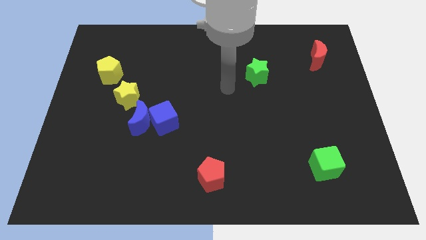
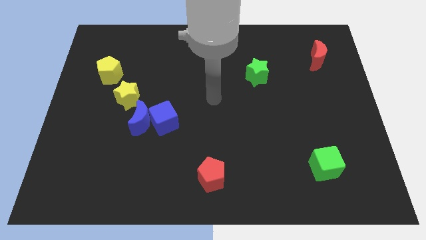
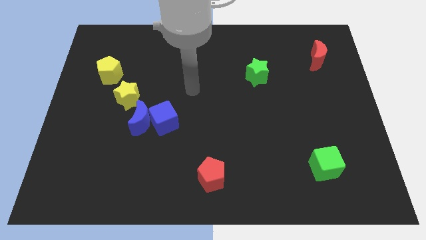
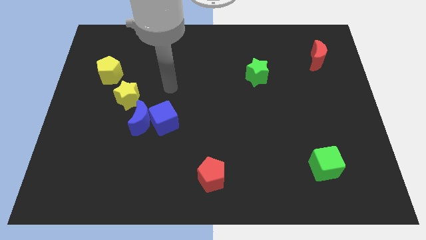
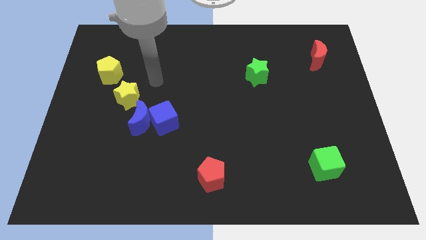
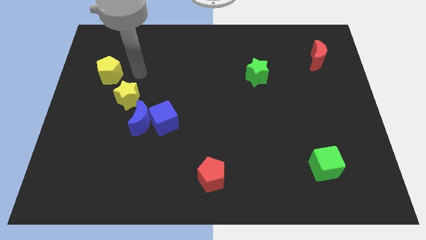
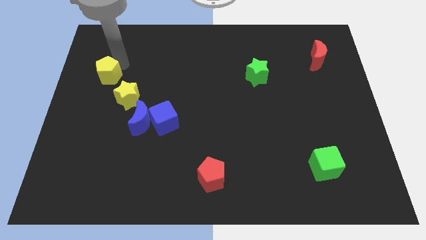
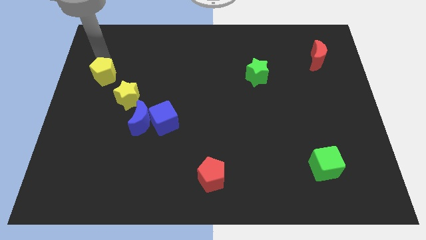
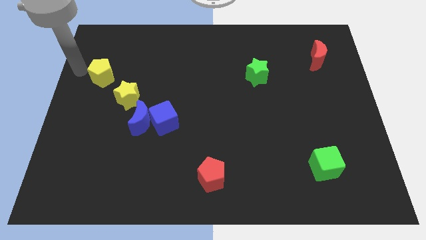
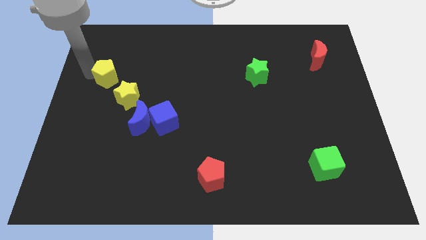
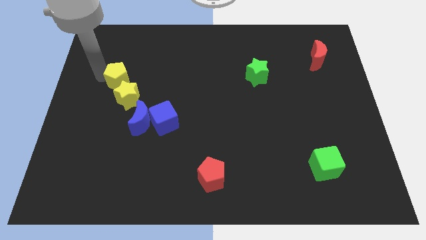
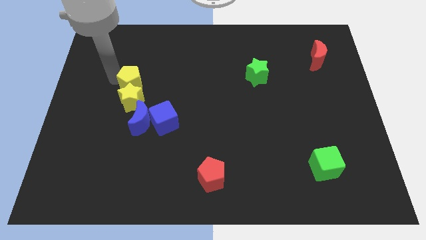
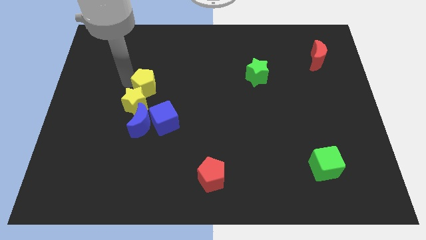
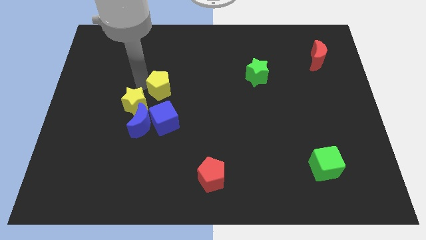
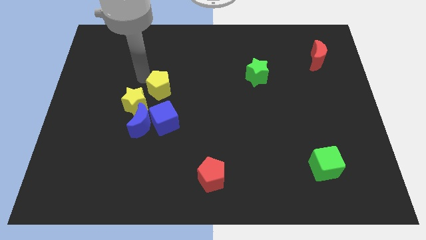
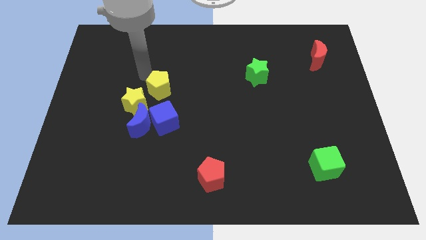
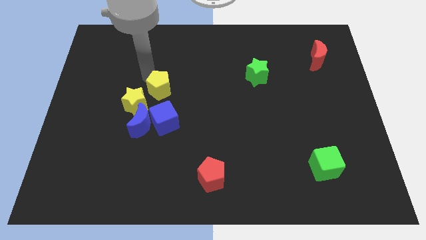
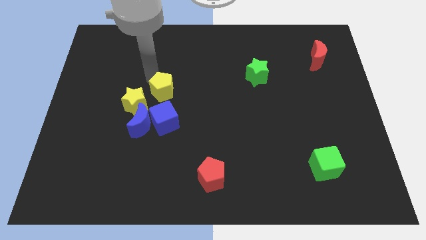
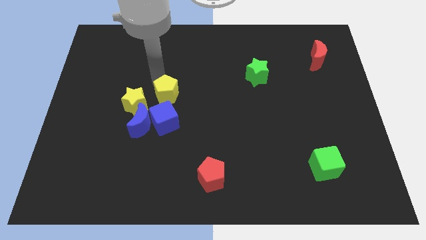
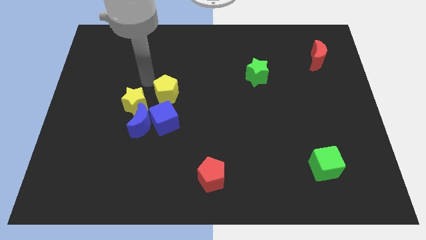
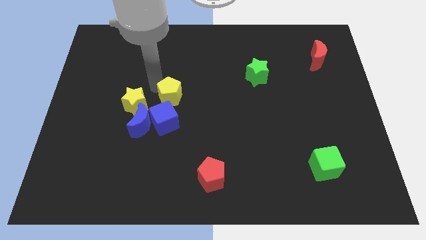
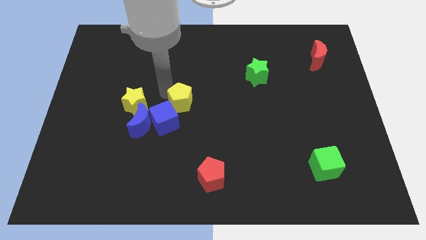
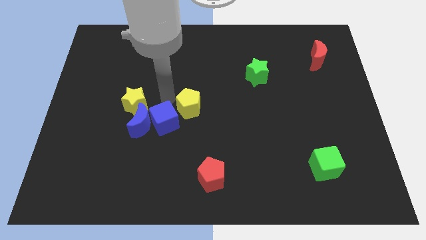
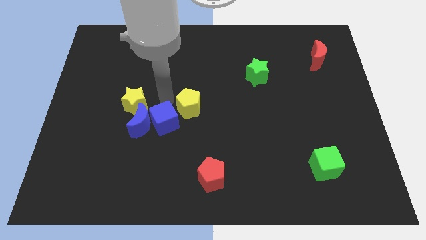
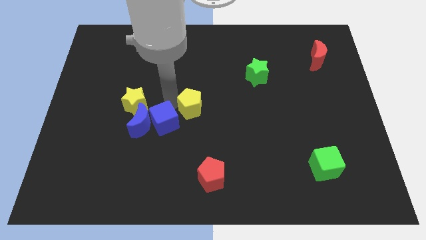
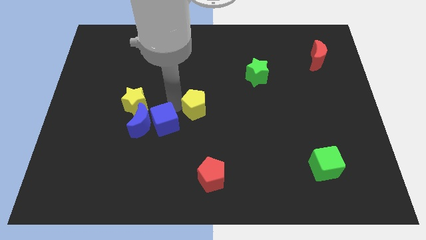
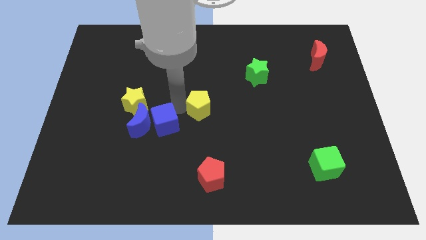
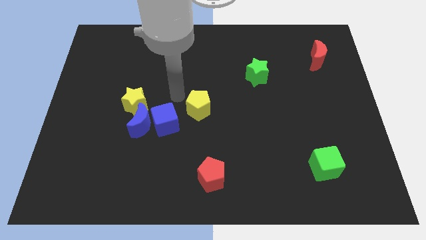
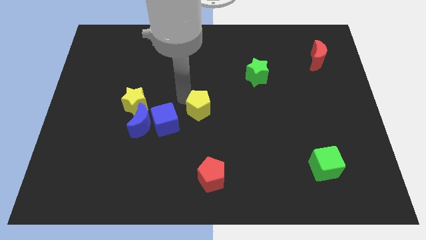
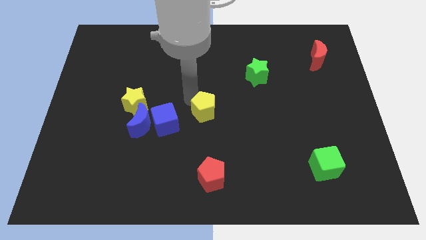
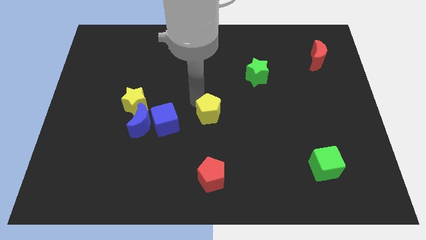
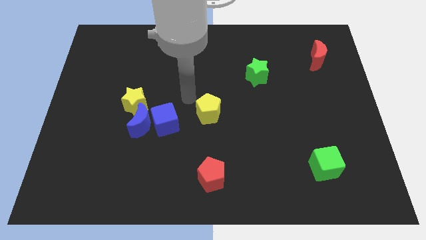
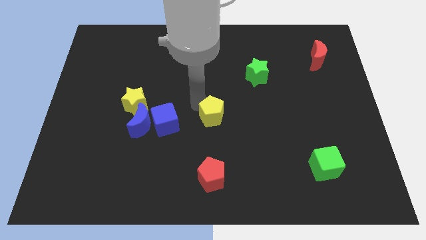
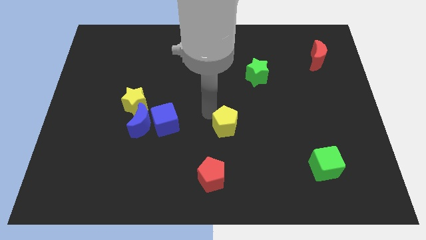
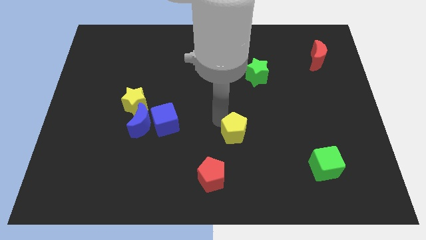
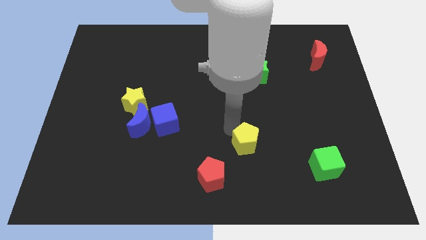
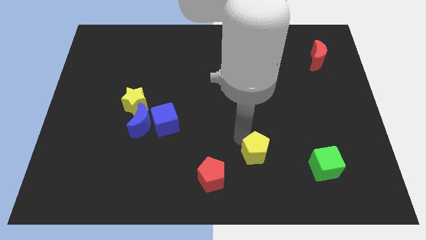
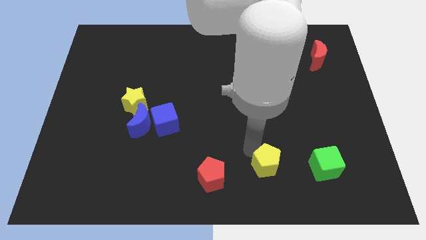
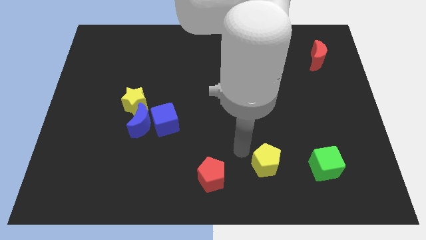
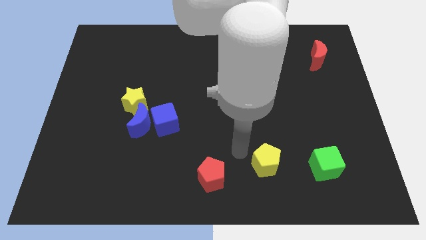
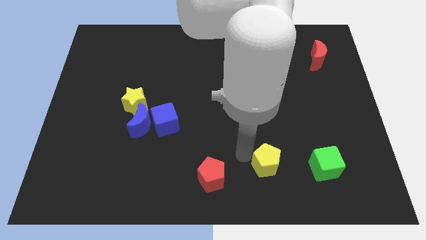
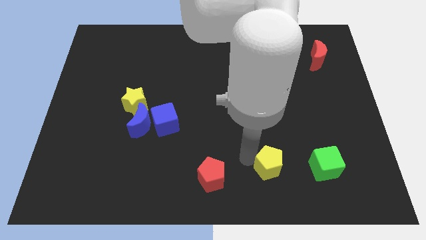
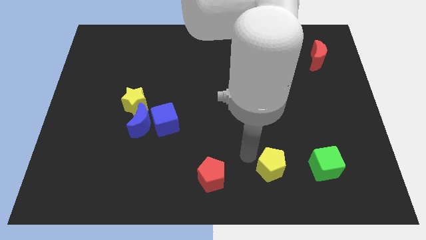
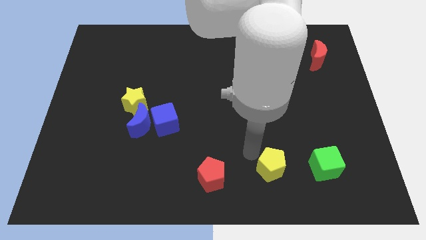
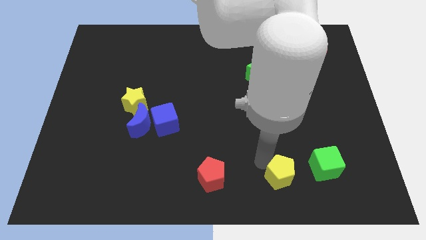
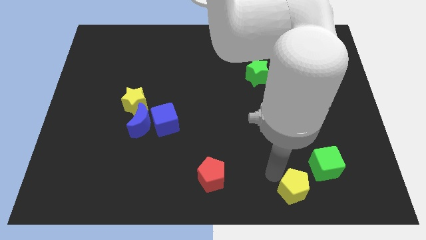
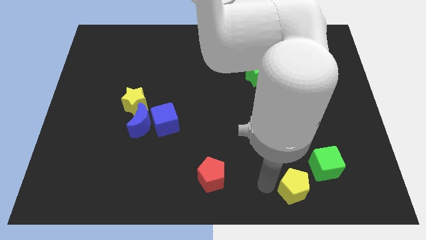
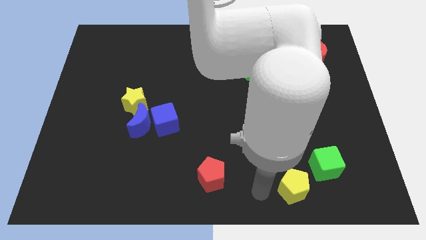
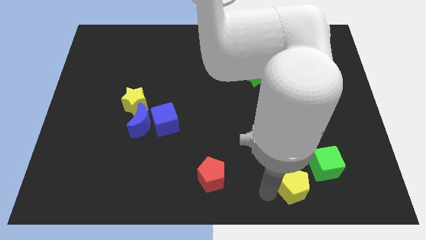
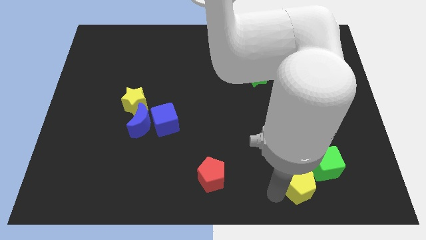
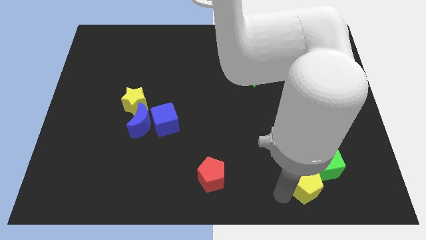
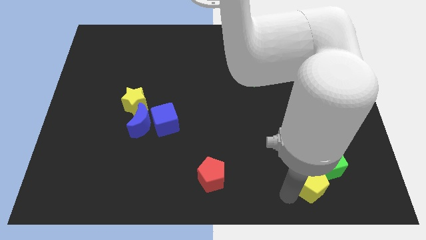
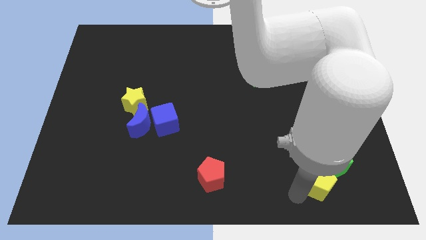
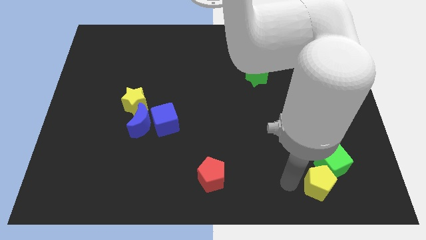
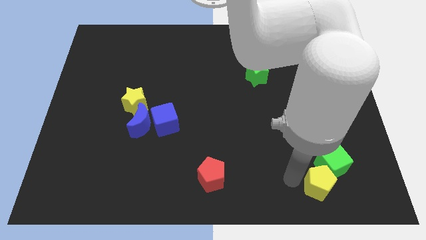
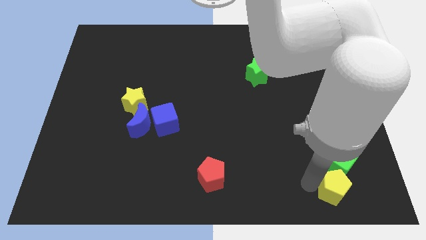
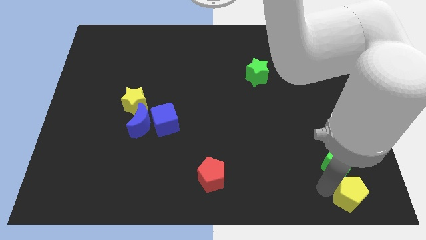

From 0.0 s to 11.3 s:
push the yellow pentagon to the bottom right

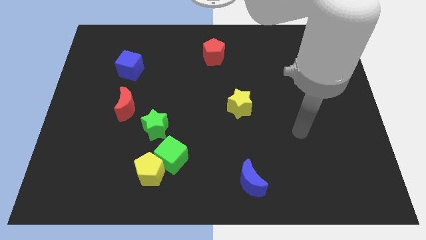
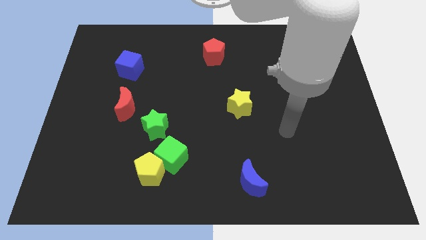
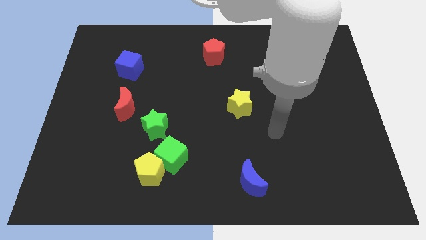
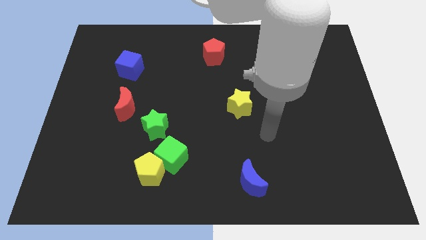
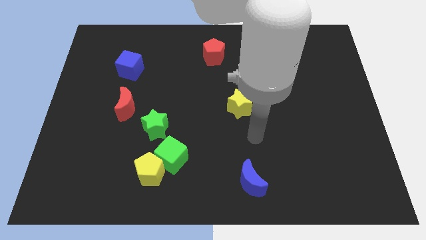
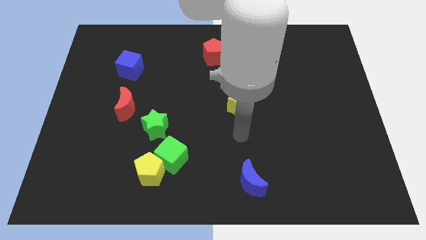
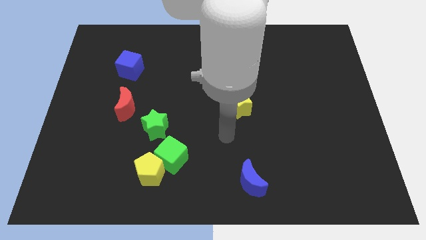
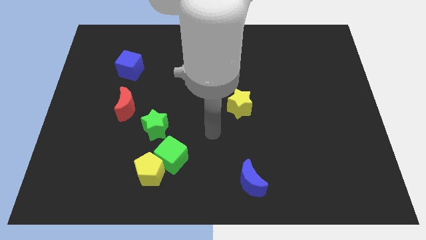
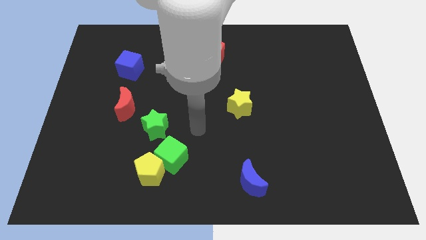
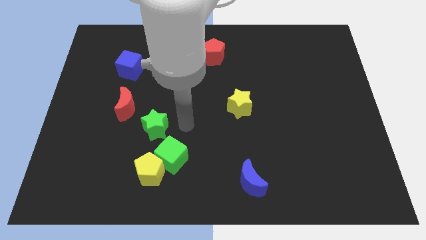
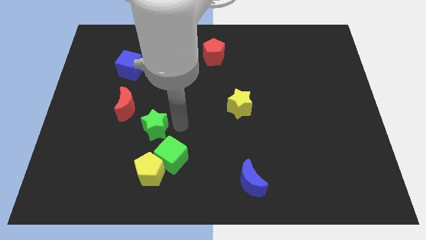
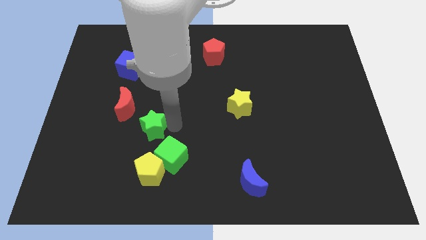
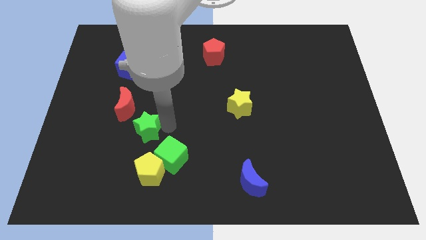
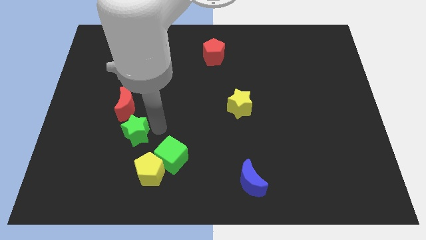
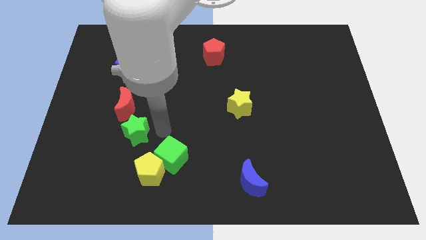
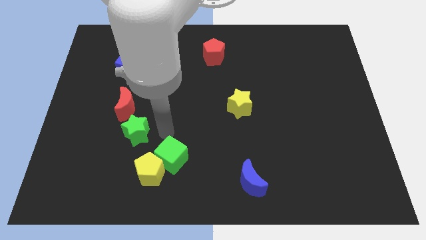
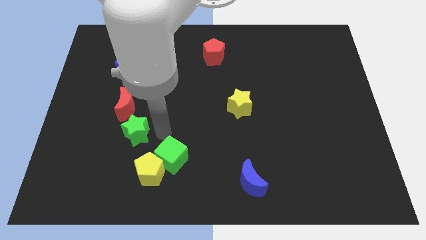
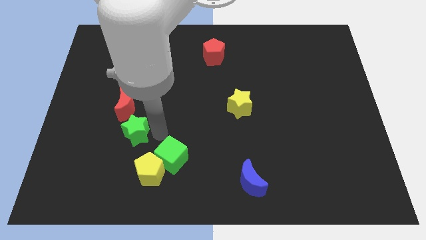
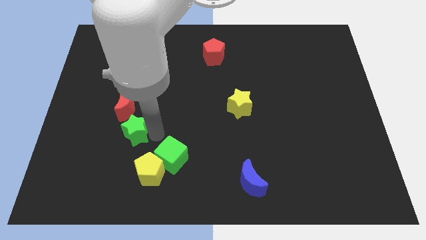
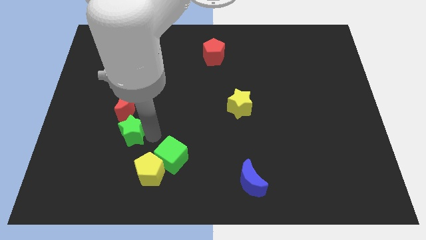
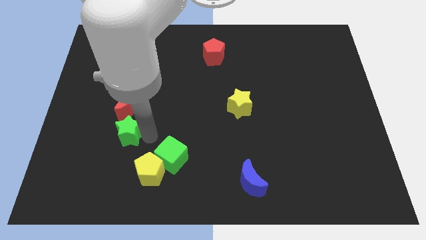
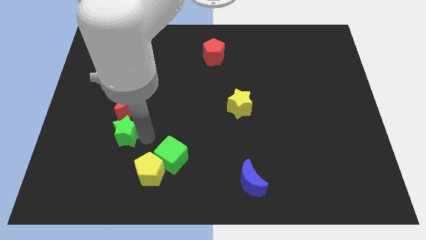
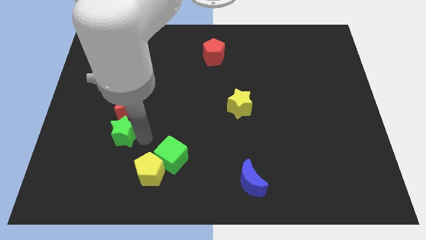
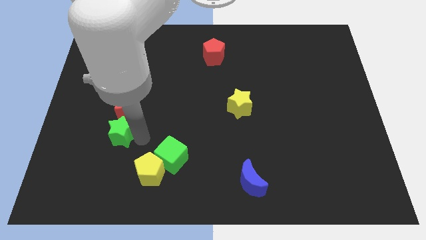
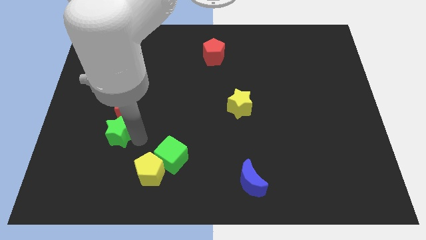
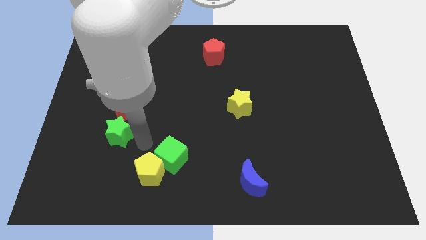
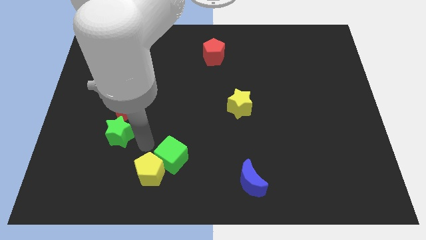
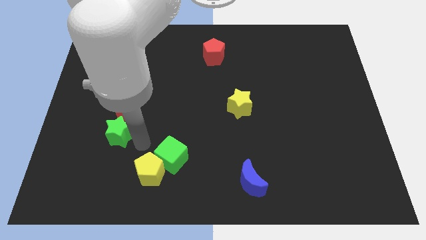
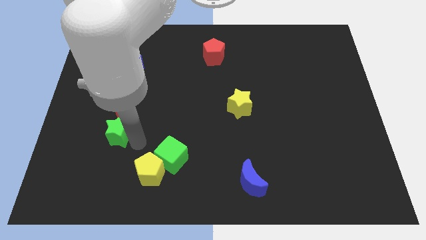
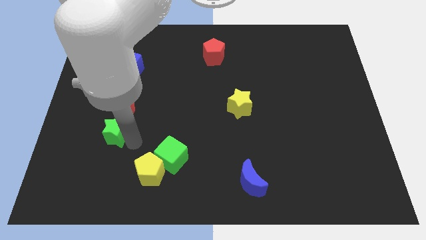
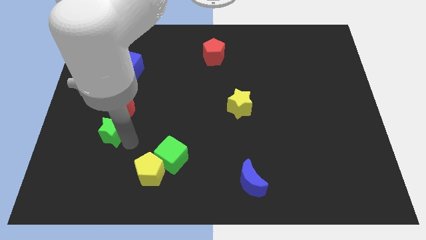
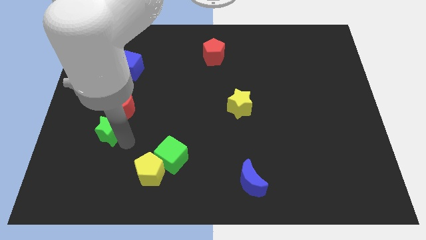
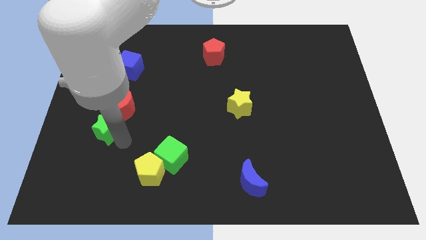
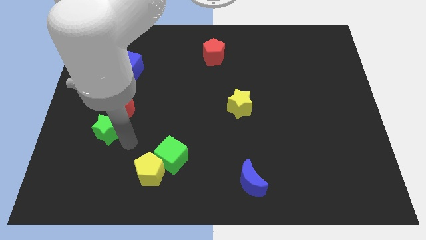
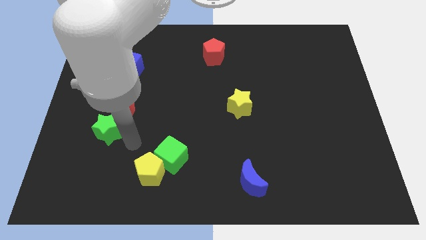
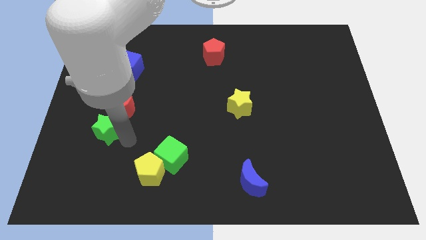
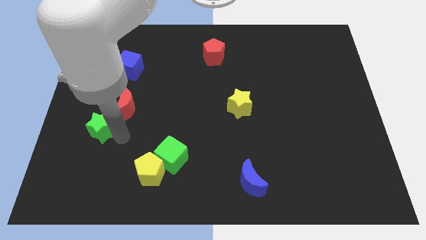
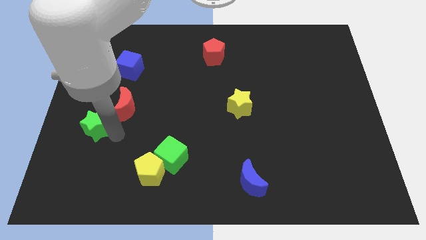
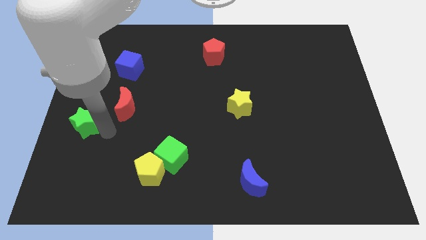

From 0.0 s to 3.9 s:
move the green star to the center left
